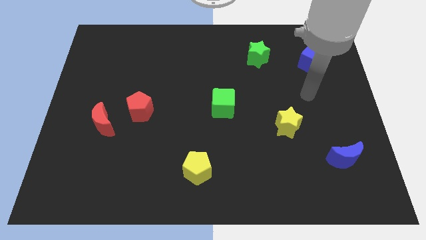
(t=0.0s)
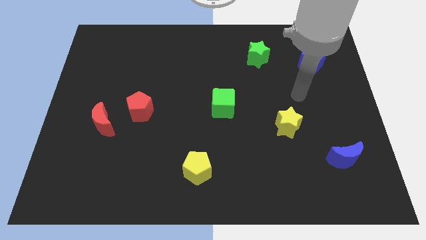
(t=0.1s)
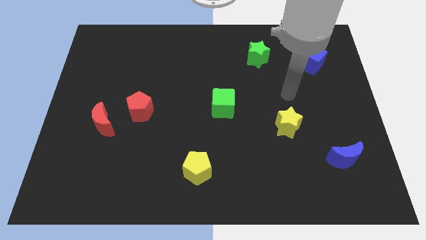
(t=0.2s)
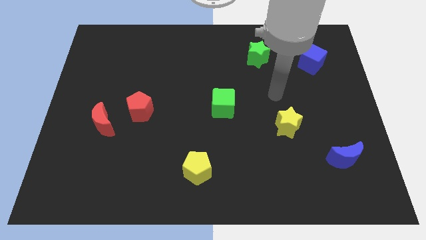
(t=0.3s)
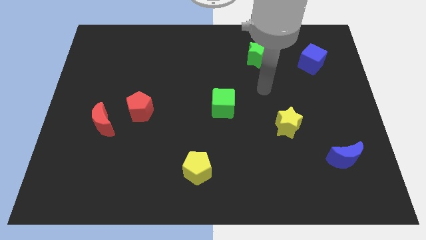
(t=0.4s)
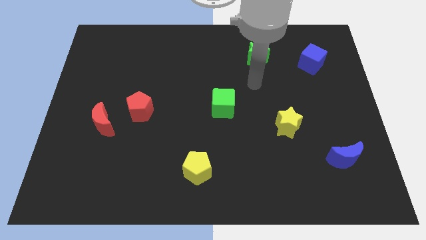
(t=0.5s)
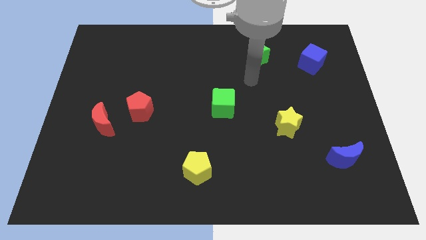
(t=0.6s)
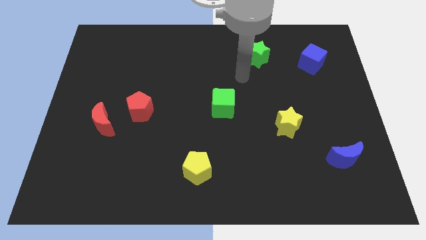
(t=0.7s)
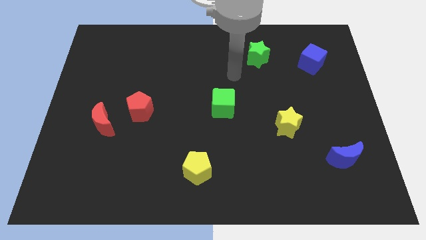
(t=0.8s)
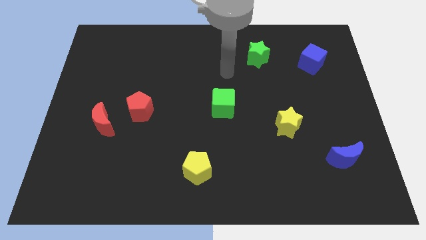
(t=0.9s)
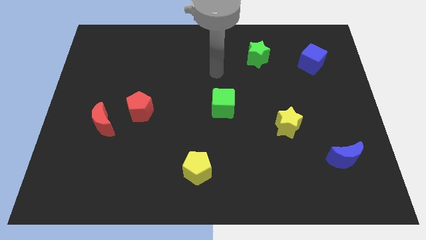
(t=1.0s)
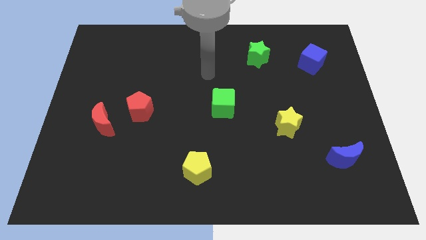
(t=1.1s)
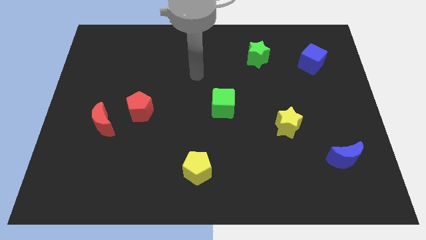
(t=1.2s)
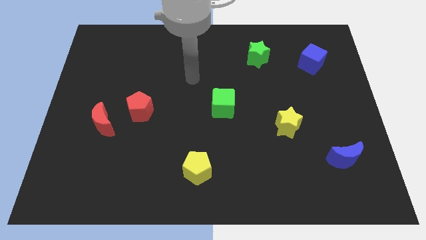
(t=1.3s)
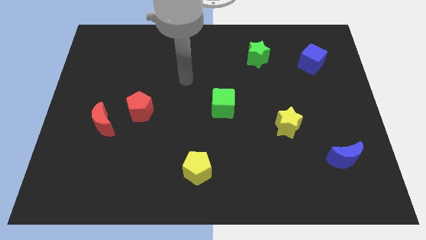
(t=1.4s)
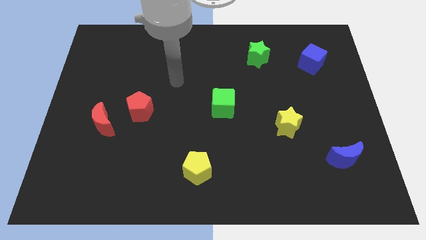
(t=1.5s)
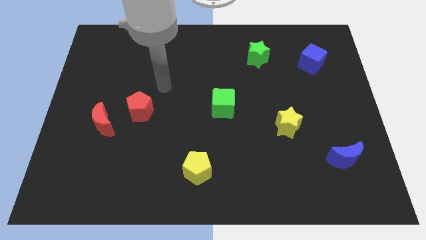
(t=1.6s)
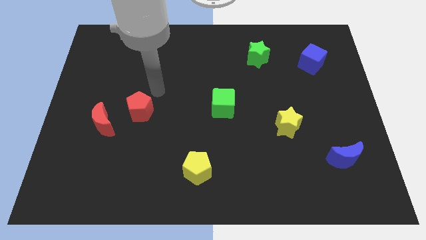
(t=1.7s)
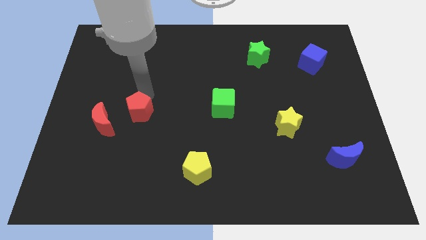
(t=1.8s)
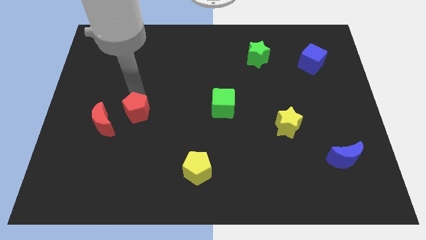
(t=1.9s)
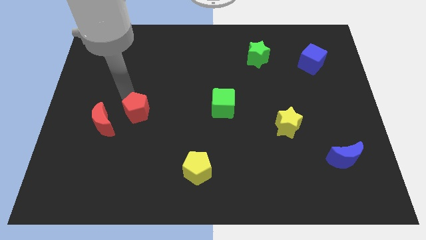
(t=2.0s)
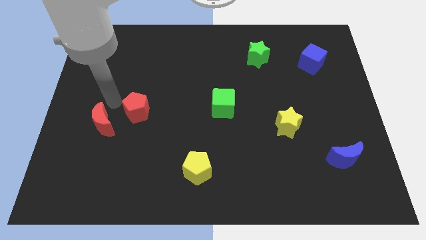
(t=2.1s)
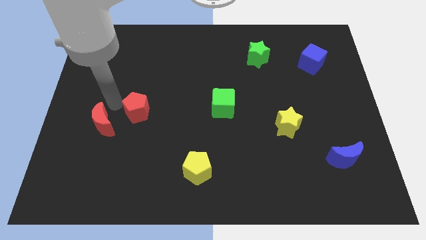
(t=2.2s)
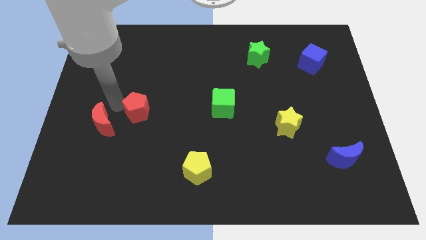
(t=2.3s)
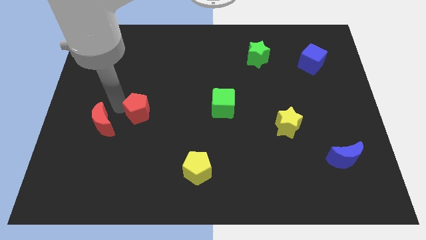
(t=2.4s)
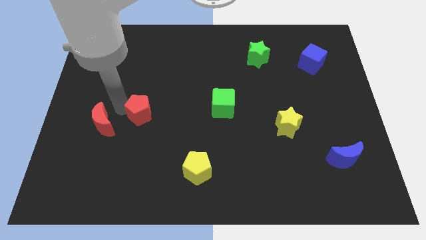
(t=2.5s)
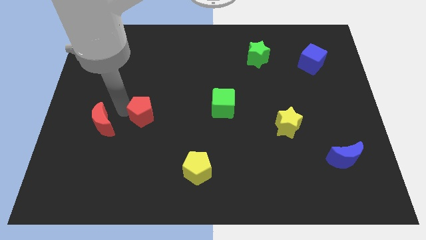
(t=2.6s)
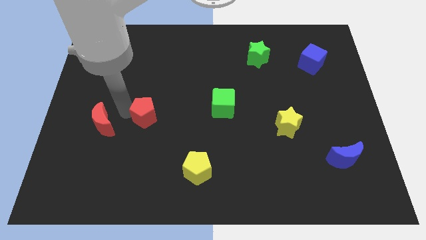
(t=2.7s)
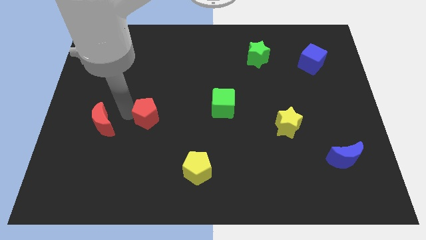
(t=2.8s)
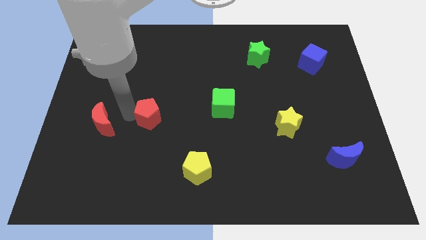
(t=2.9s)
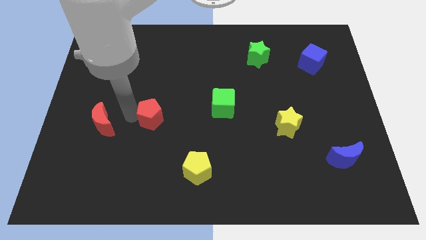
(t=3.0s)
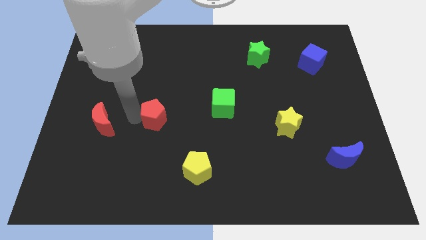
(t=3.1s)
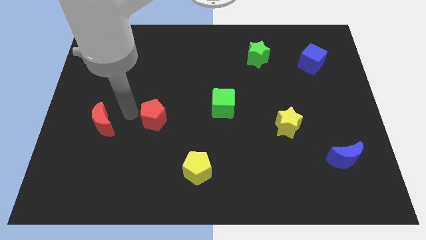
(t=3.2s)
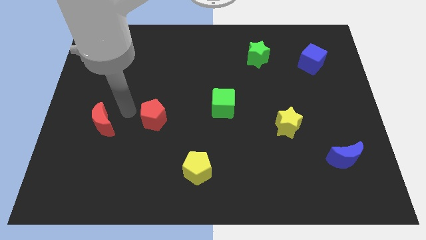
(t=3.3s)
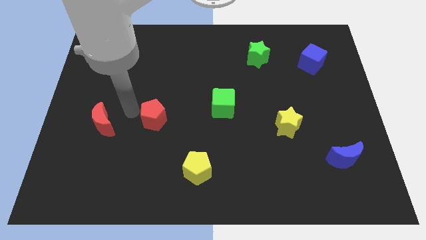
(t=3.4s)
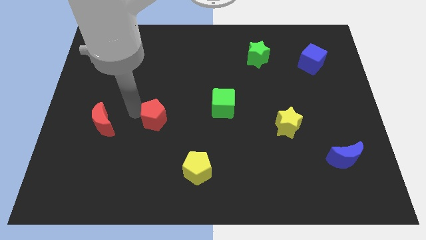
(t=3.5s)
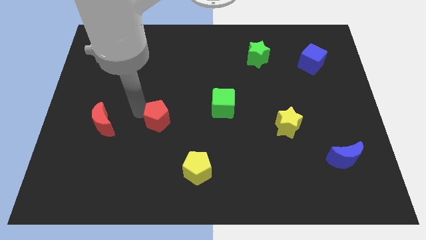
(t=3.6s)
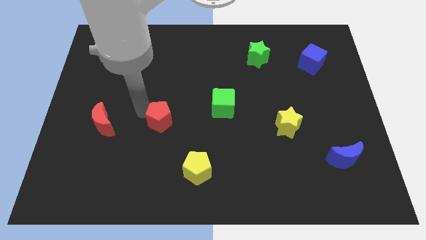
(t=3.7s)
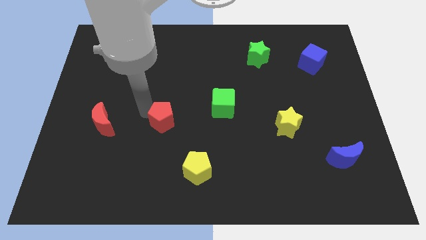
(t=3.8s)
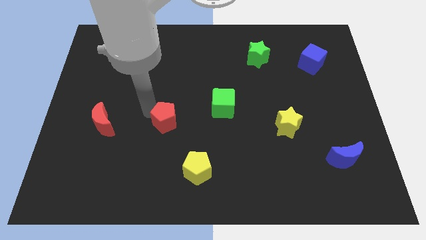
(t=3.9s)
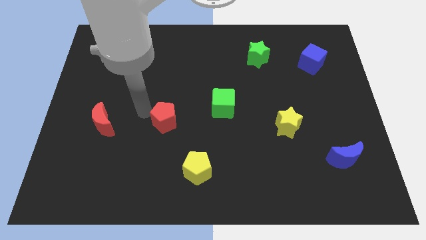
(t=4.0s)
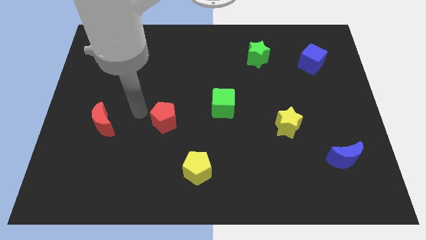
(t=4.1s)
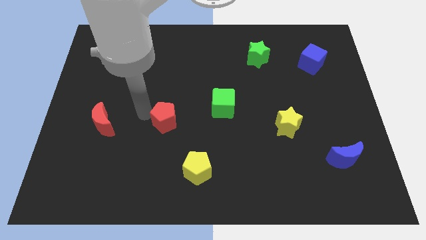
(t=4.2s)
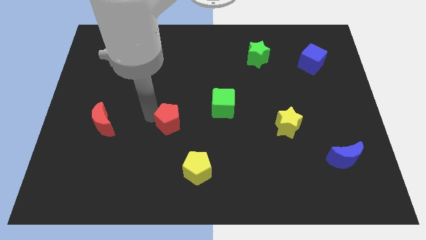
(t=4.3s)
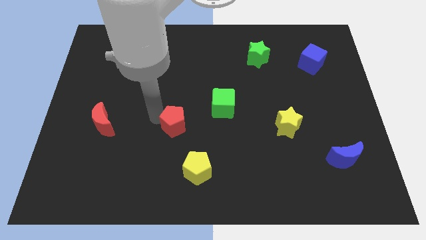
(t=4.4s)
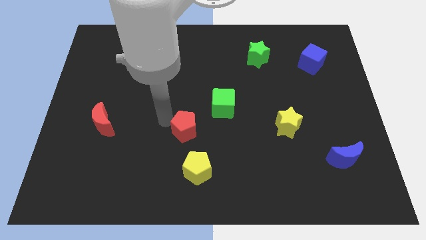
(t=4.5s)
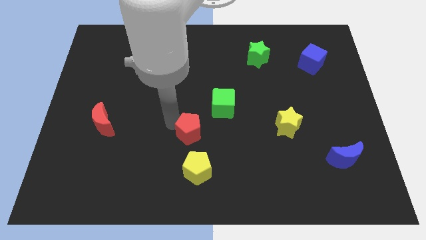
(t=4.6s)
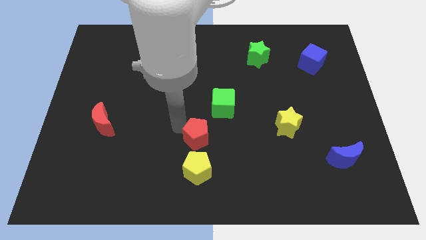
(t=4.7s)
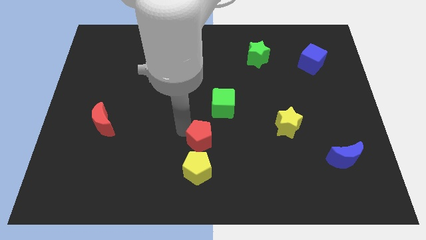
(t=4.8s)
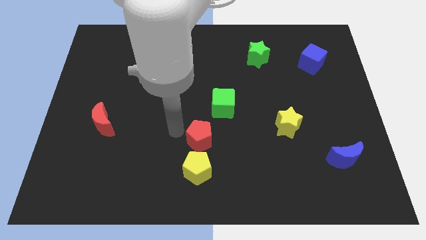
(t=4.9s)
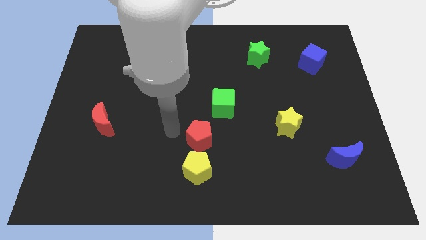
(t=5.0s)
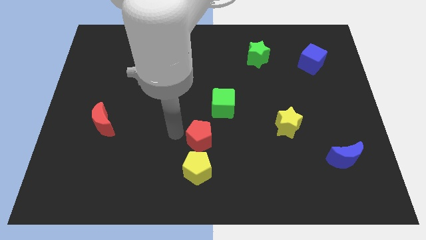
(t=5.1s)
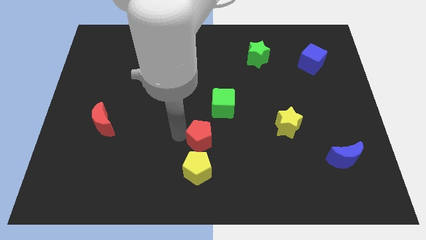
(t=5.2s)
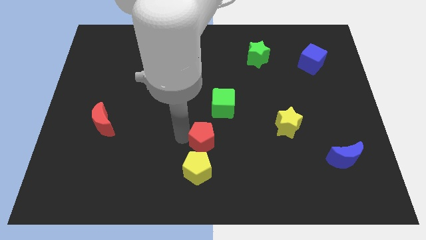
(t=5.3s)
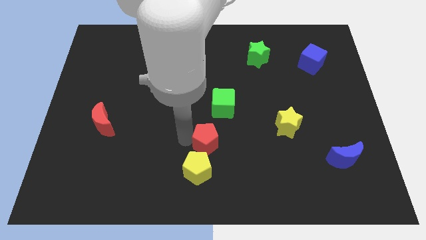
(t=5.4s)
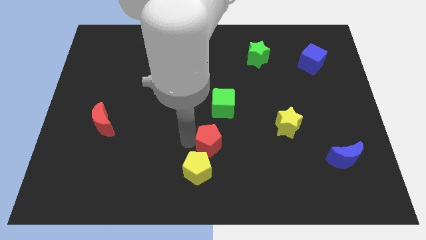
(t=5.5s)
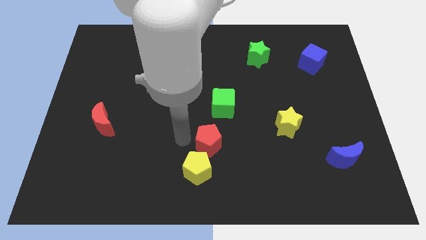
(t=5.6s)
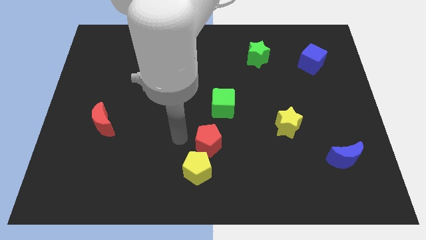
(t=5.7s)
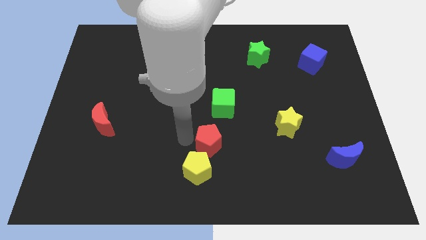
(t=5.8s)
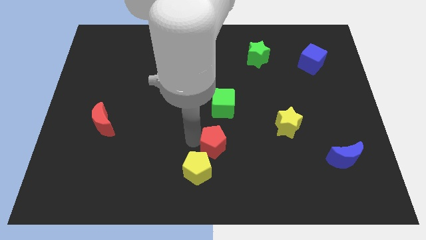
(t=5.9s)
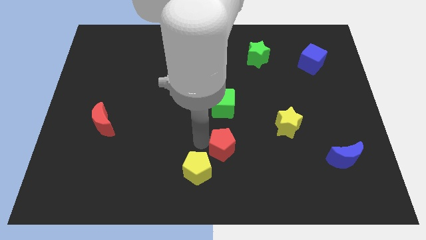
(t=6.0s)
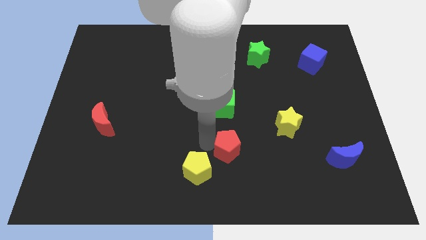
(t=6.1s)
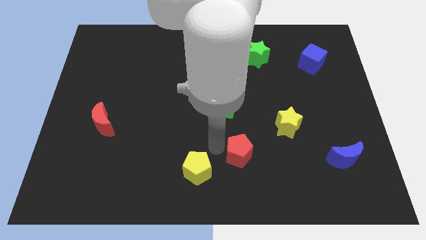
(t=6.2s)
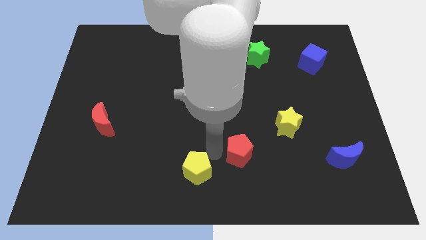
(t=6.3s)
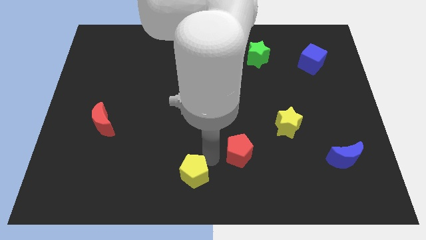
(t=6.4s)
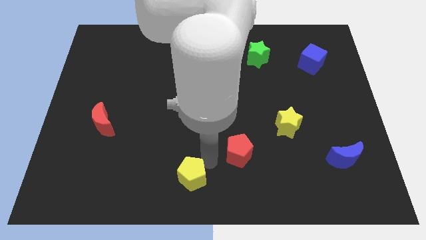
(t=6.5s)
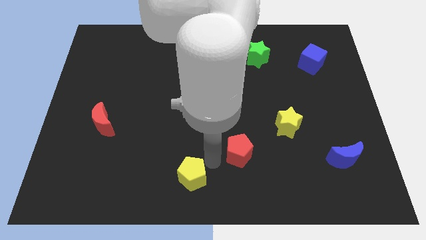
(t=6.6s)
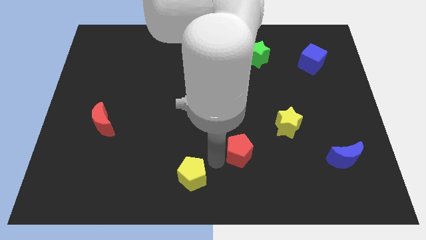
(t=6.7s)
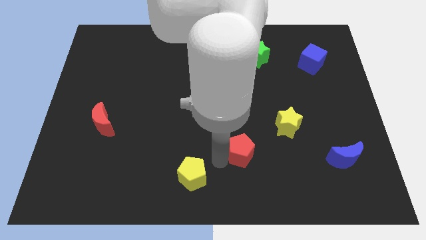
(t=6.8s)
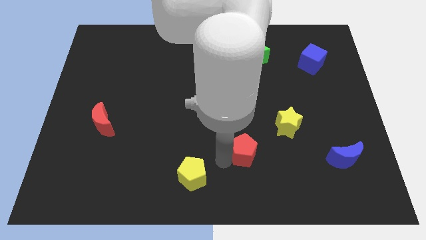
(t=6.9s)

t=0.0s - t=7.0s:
slide the red pentagon to the bottom left side of the yellow star
